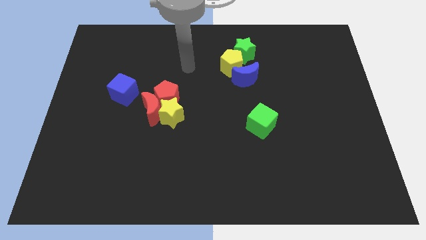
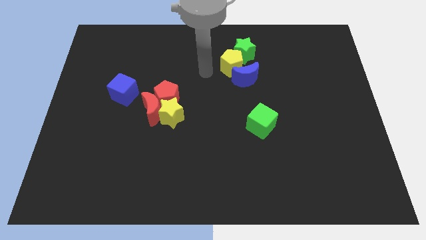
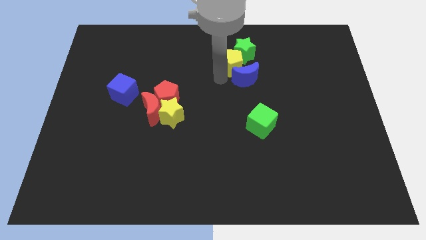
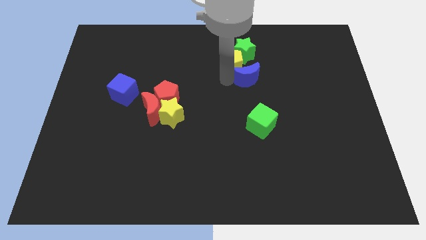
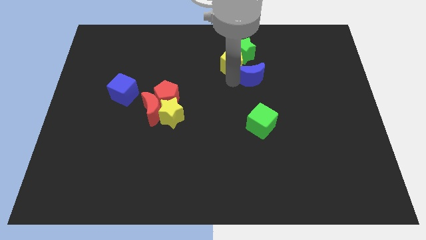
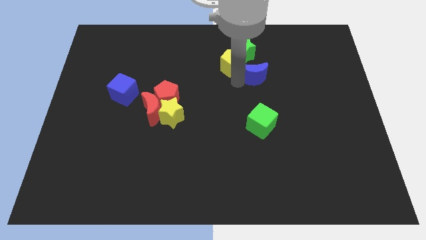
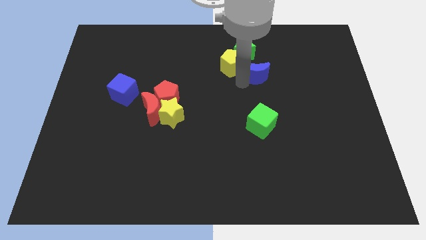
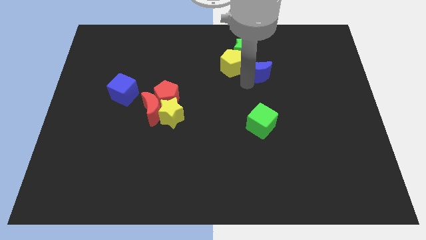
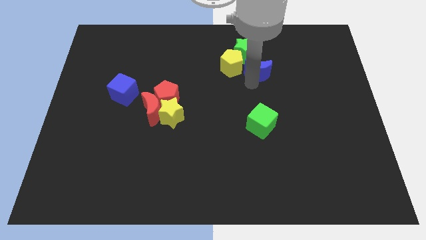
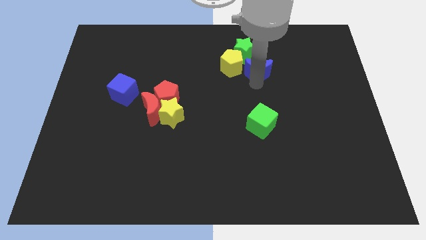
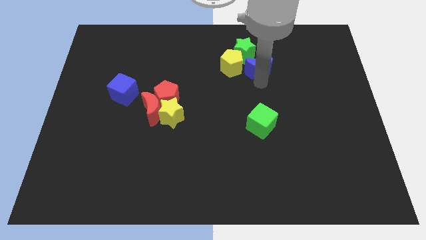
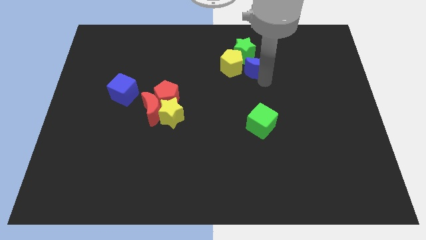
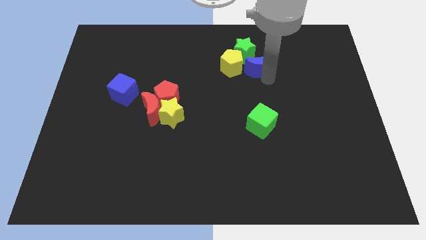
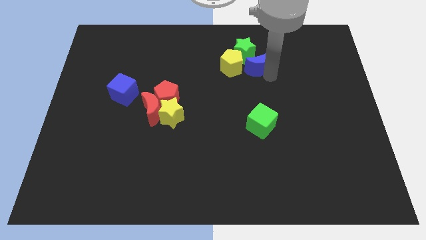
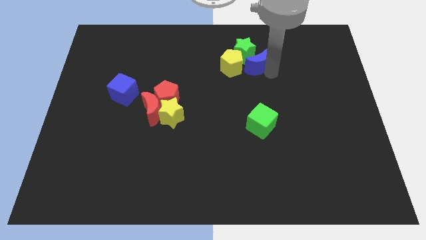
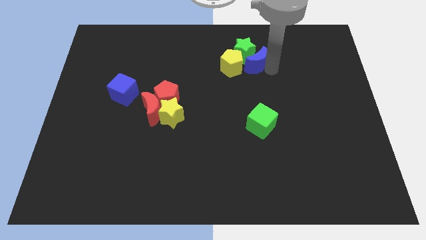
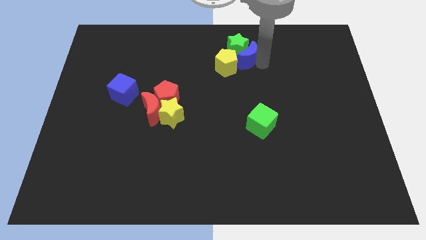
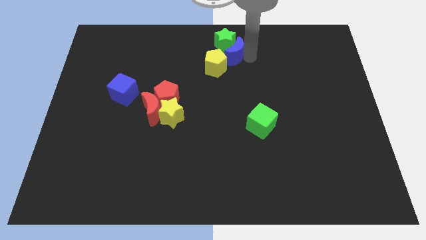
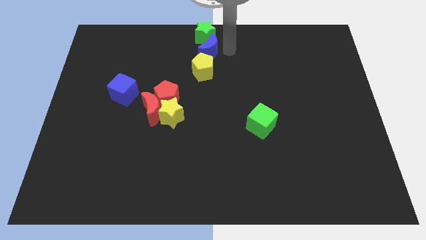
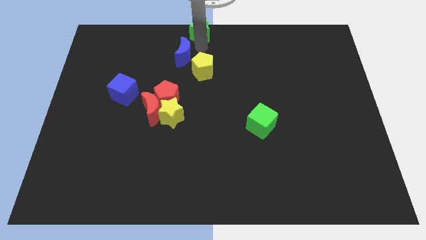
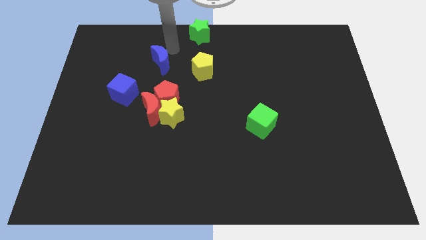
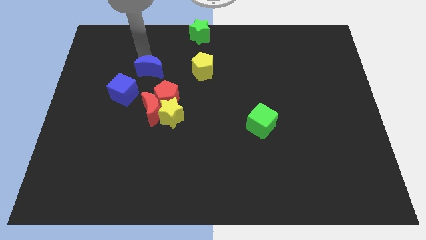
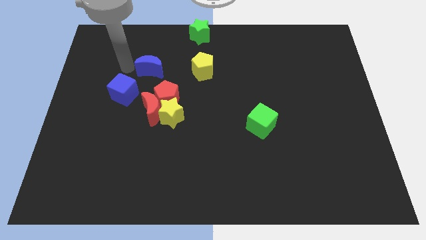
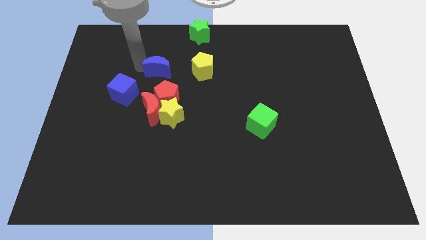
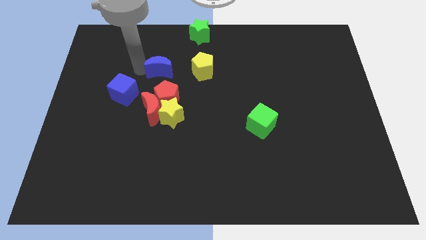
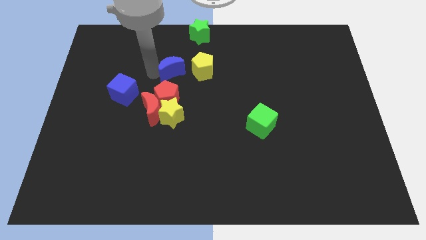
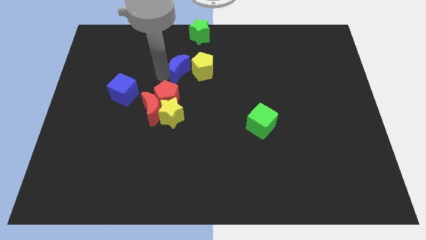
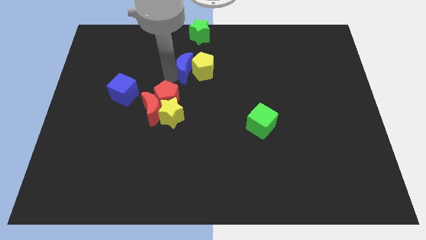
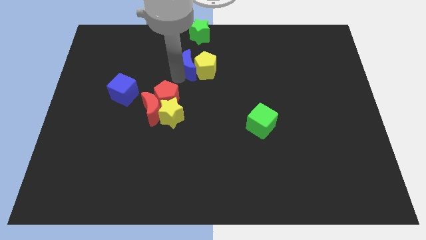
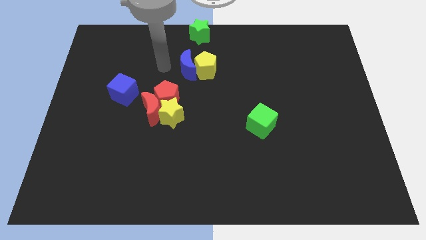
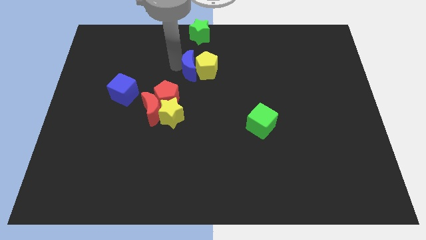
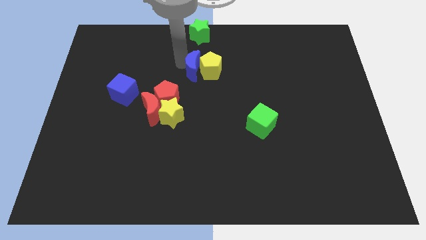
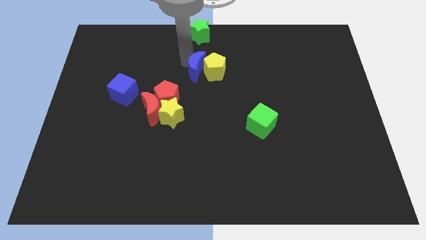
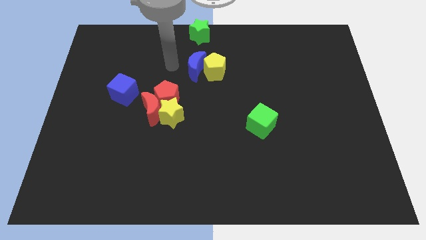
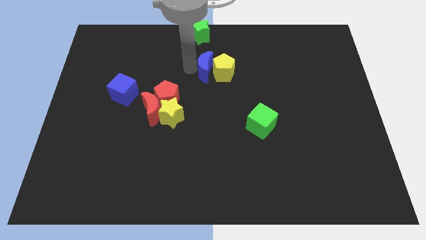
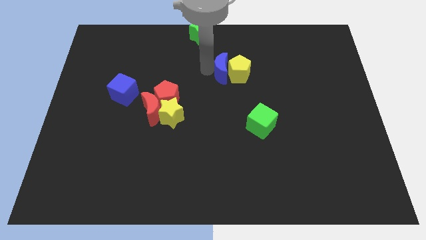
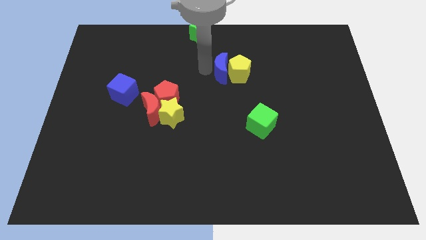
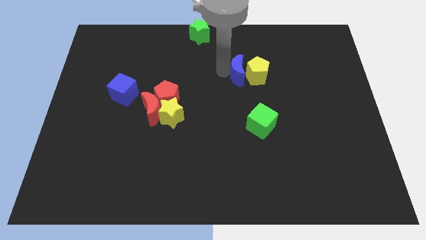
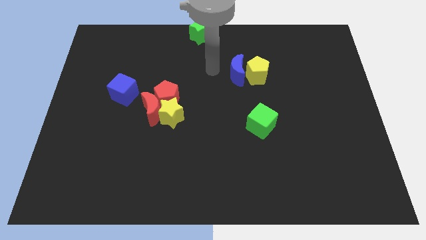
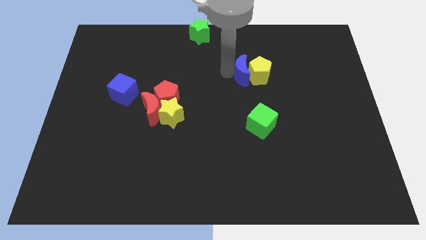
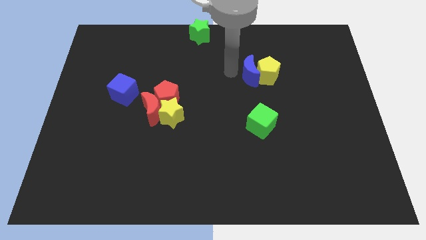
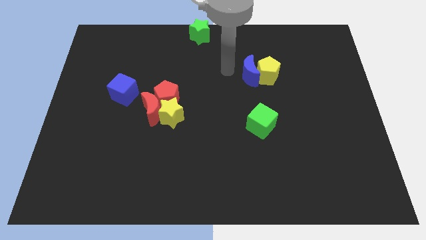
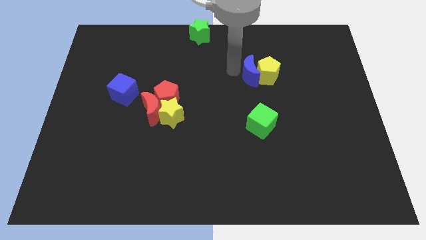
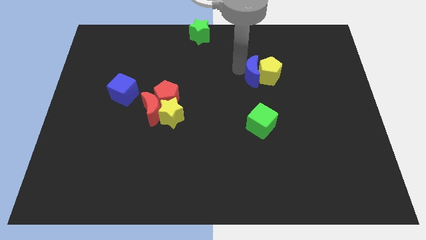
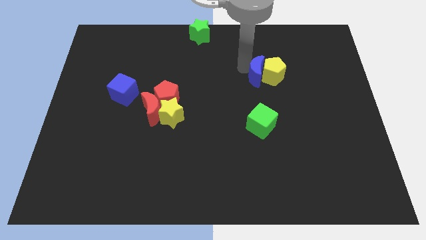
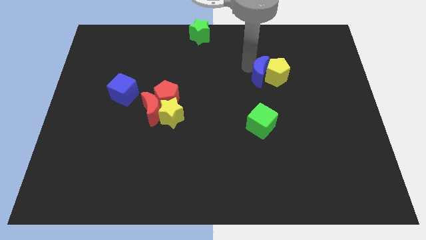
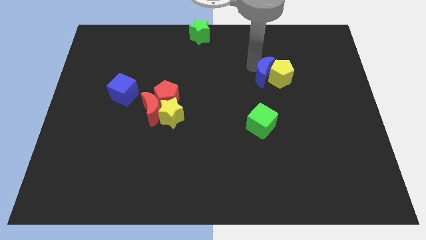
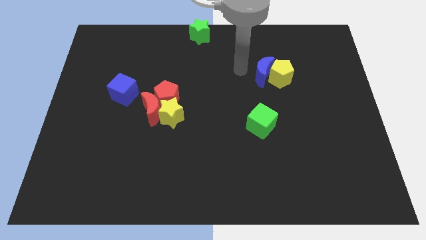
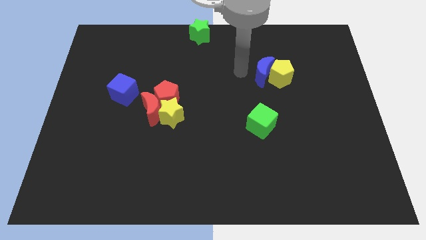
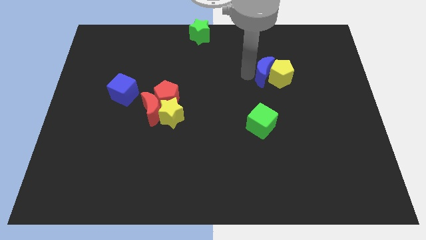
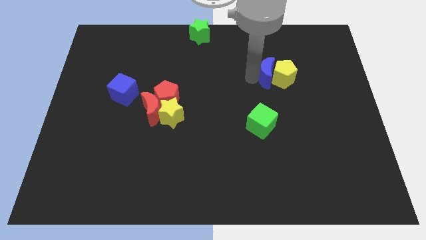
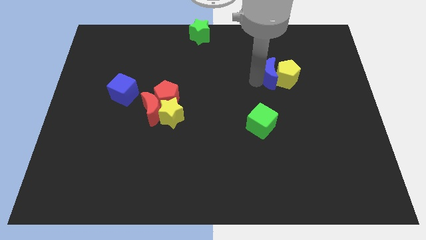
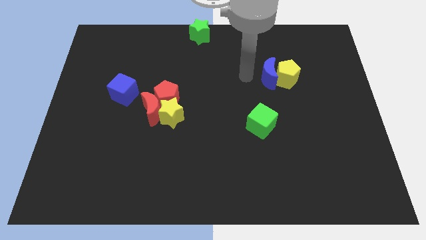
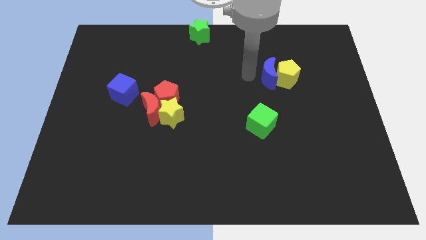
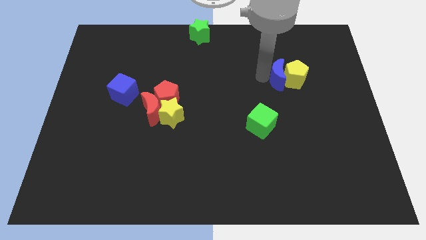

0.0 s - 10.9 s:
move the blue moon a little to the right

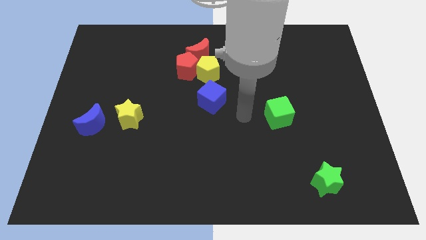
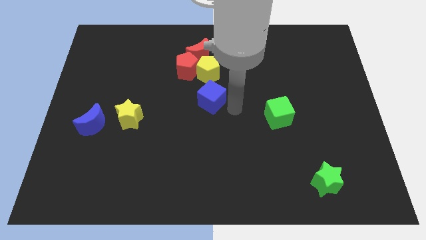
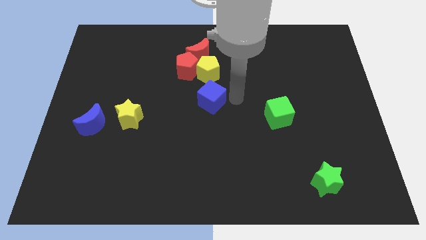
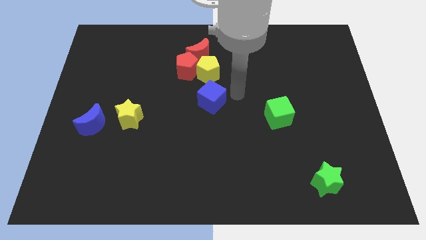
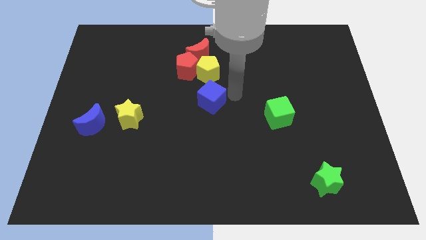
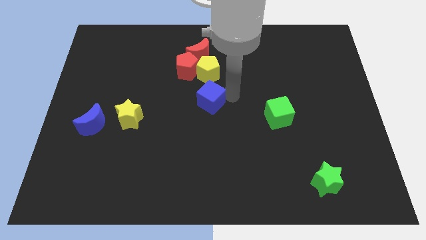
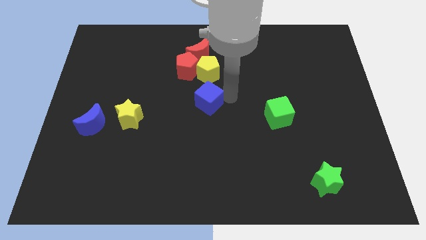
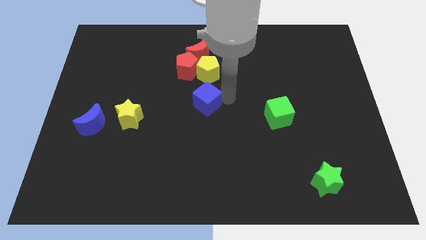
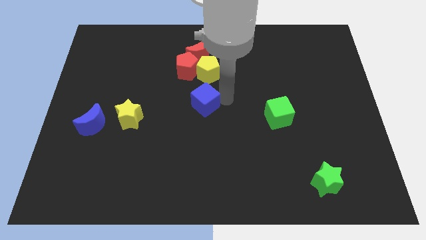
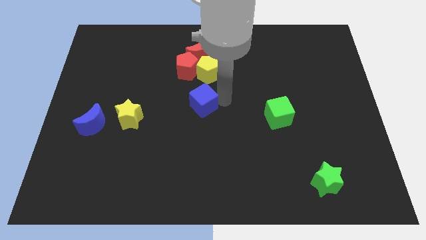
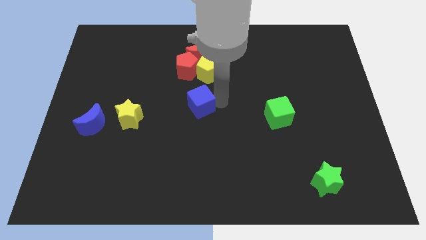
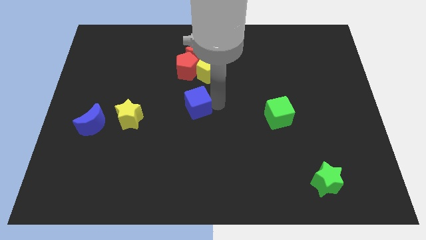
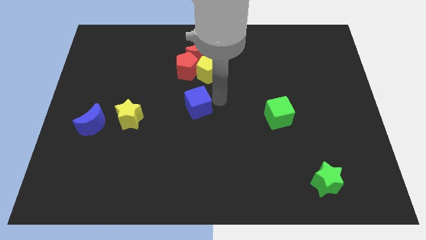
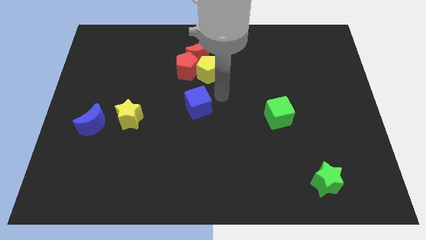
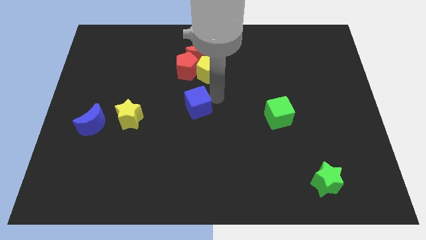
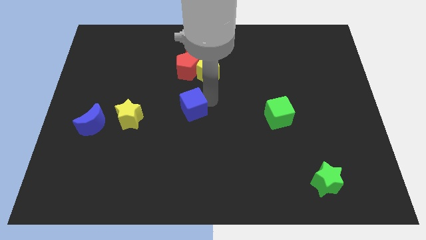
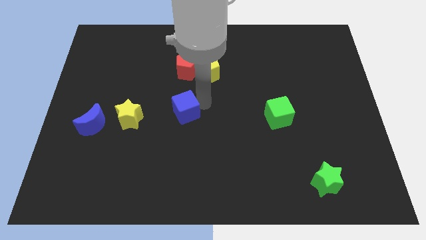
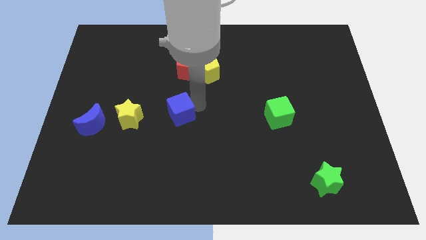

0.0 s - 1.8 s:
slightly slide the blue cube diagonally downwards and left

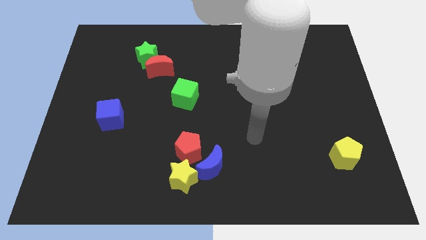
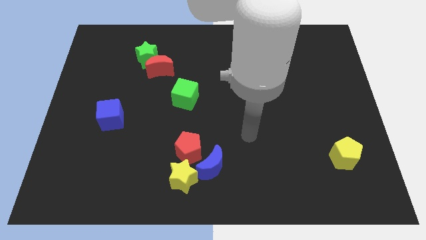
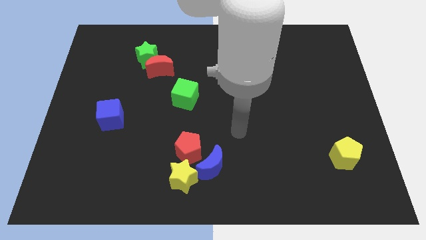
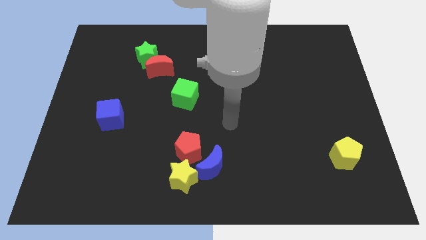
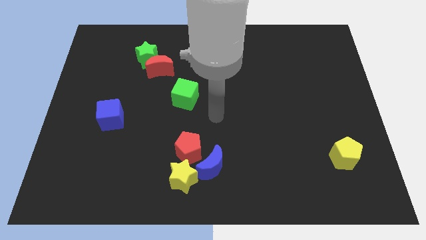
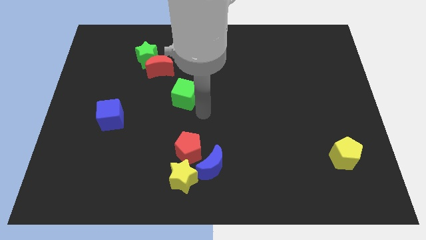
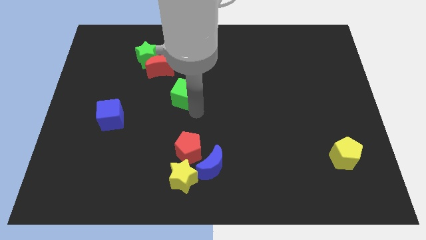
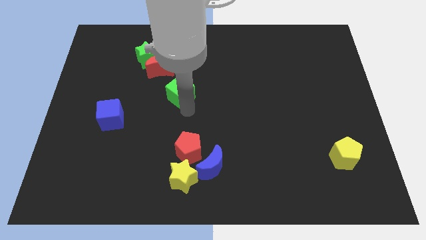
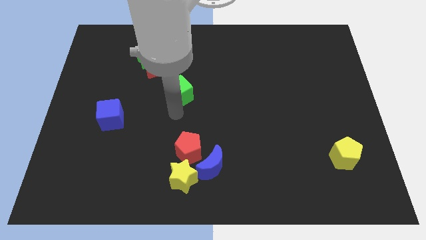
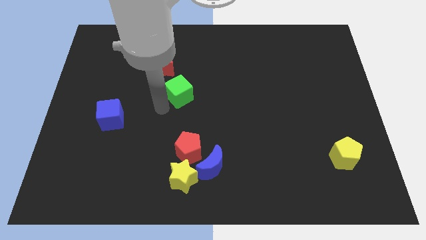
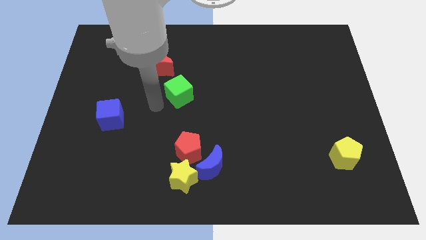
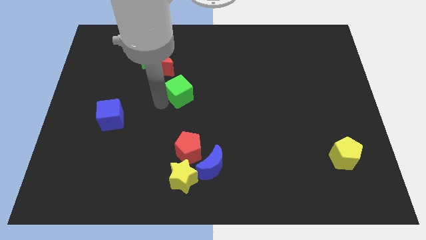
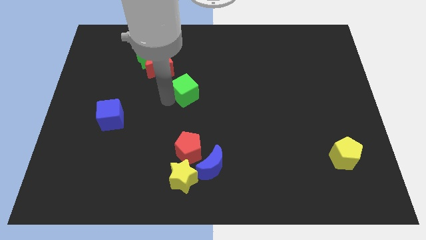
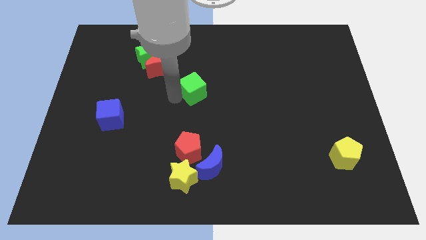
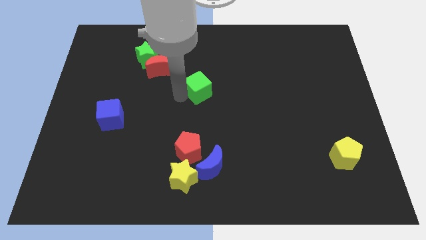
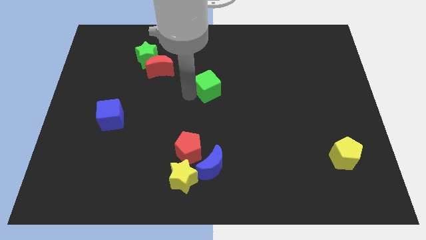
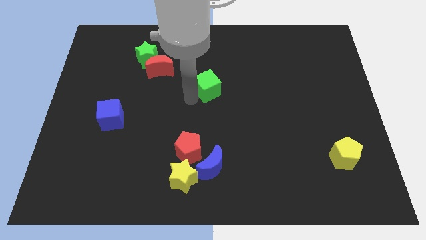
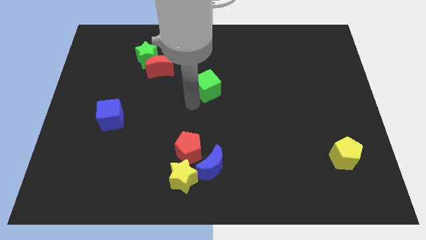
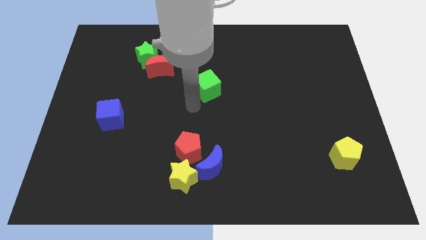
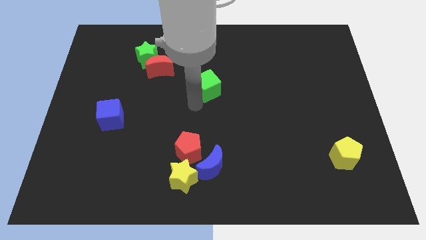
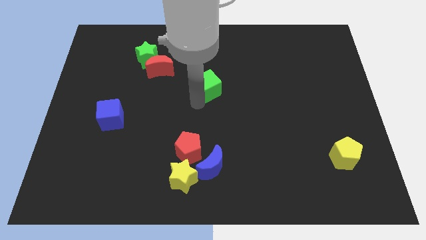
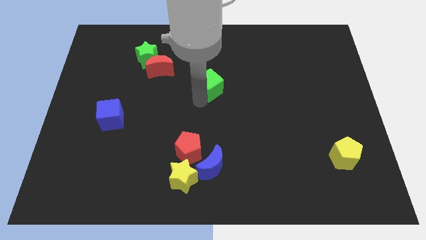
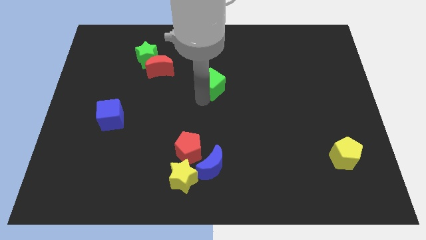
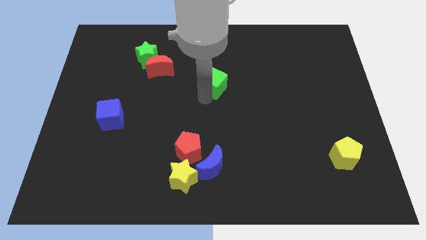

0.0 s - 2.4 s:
slightly move the green cube upwards and right diagonally
